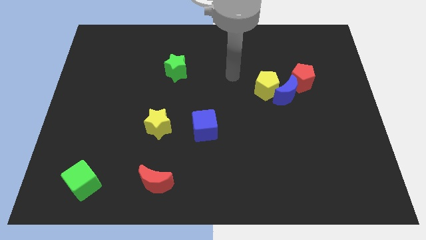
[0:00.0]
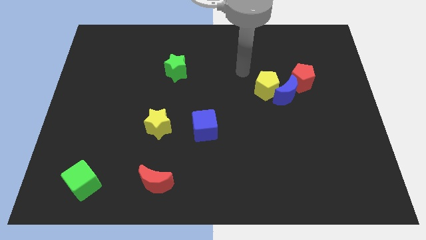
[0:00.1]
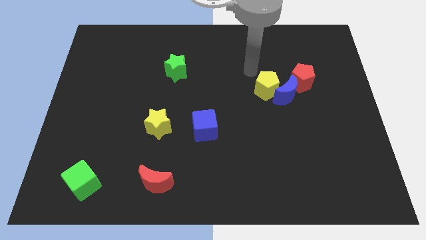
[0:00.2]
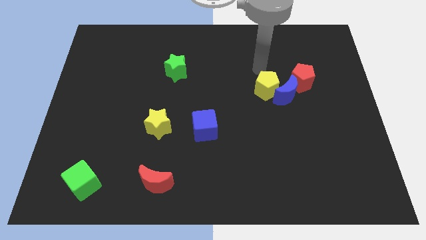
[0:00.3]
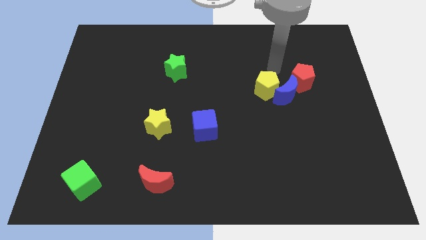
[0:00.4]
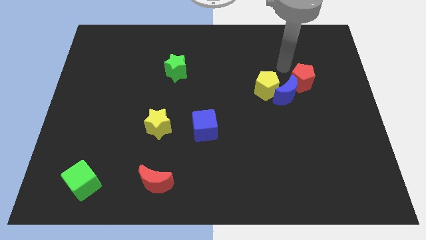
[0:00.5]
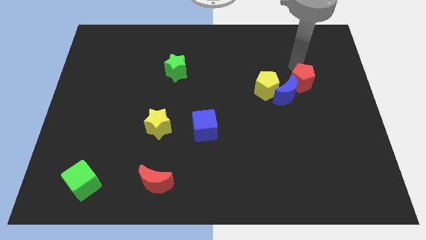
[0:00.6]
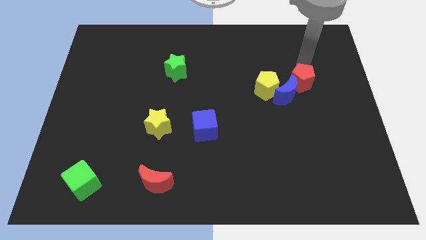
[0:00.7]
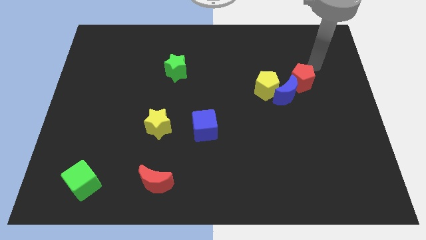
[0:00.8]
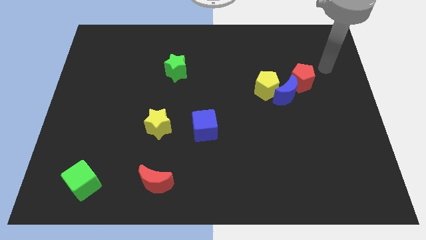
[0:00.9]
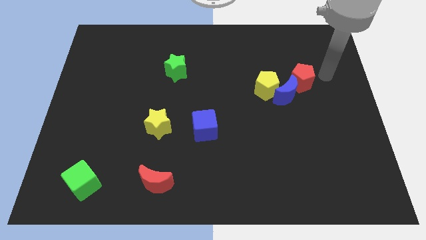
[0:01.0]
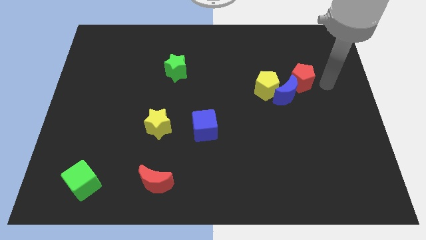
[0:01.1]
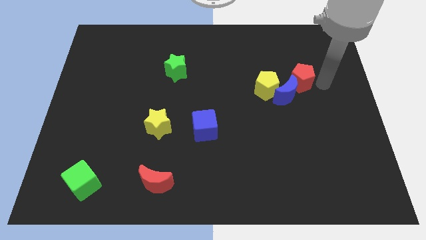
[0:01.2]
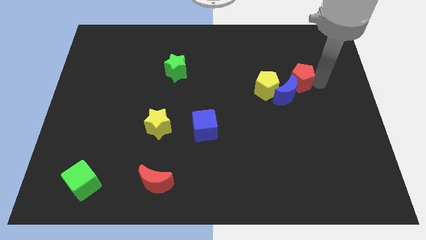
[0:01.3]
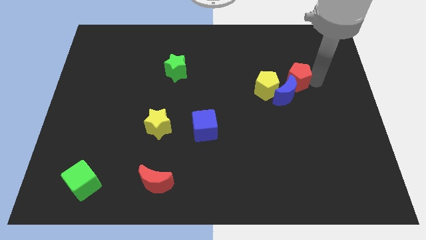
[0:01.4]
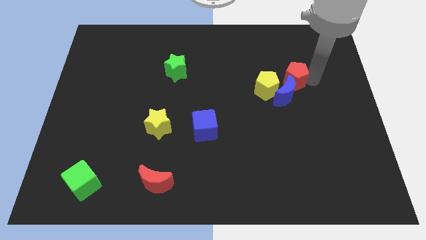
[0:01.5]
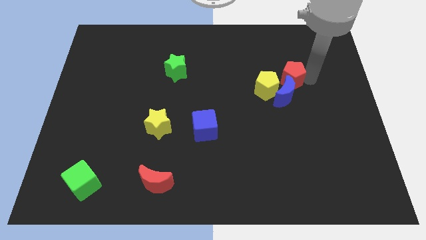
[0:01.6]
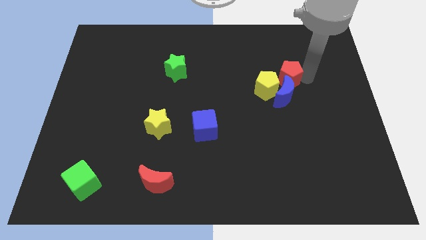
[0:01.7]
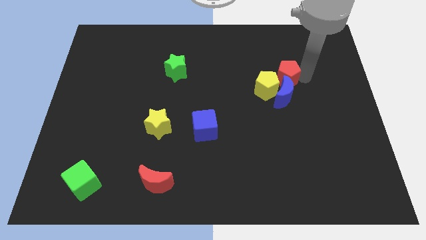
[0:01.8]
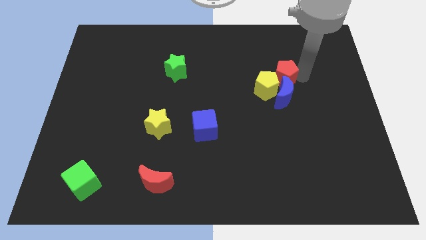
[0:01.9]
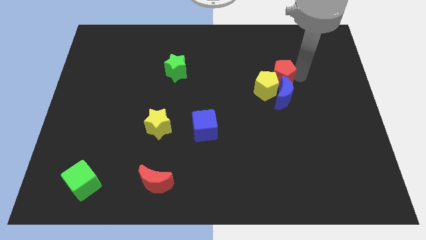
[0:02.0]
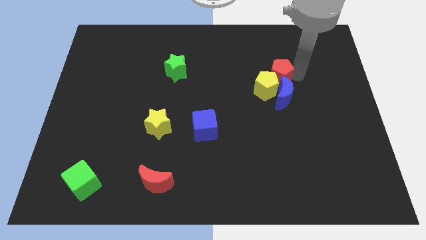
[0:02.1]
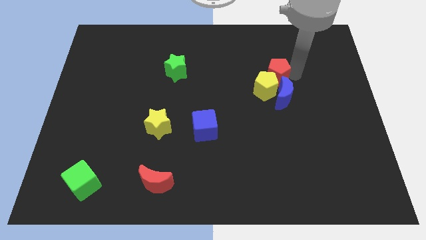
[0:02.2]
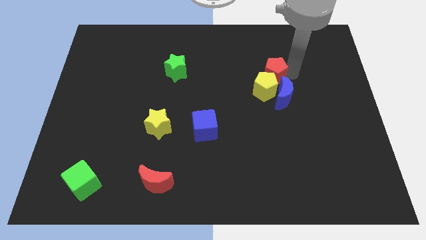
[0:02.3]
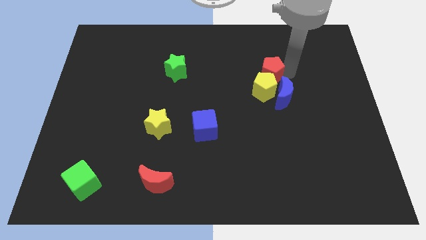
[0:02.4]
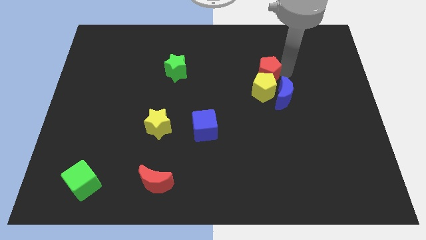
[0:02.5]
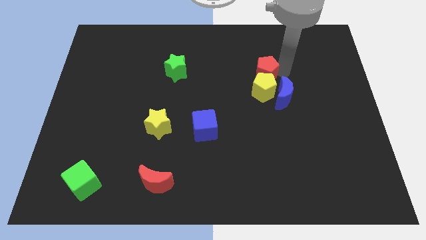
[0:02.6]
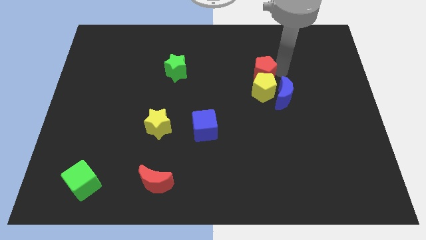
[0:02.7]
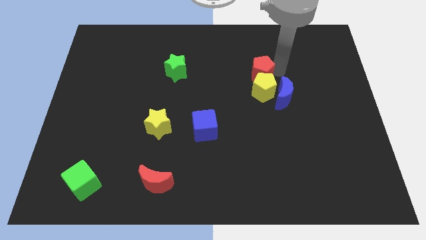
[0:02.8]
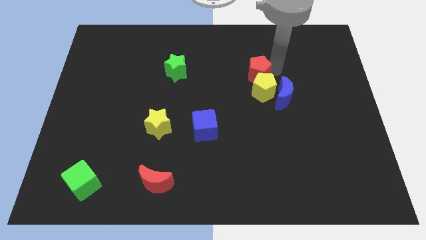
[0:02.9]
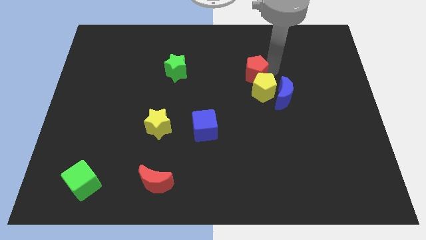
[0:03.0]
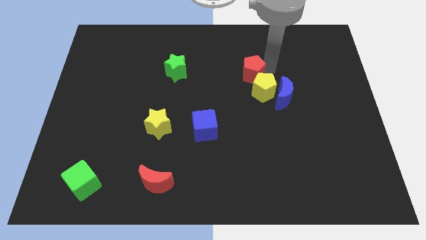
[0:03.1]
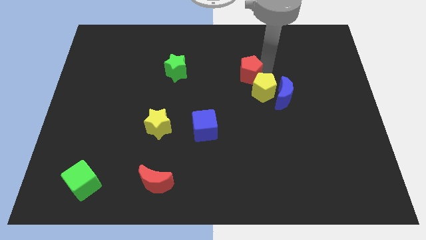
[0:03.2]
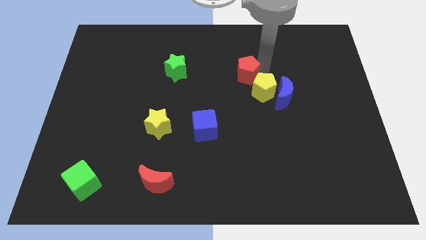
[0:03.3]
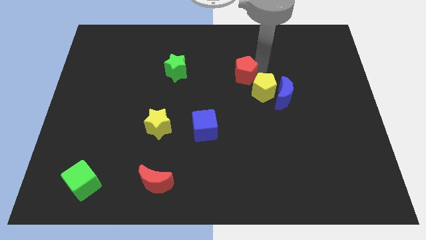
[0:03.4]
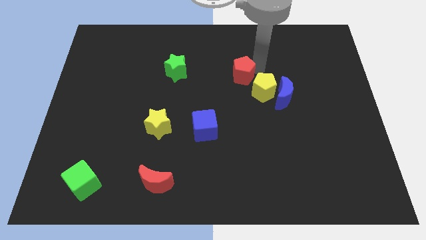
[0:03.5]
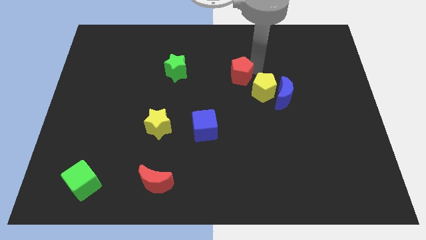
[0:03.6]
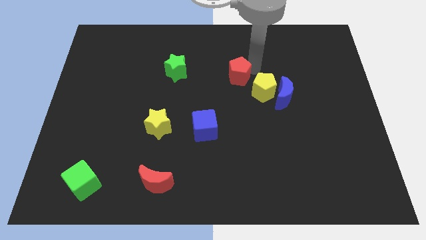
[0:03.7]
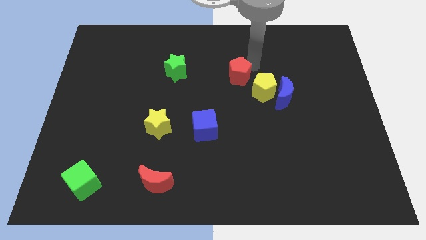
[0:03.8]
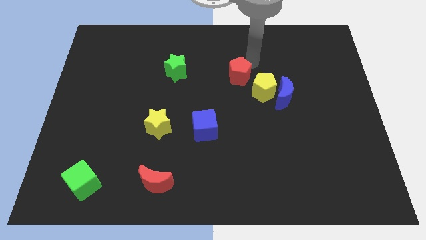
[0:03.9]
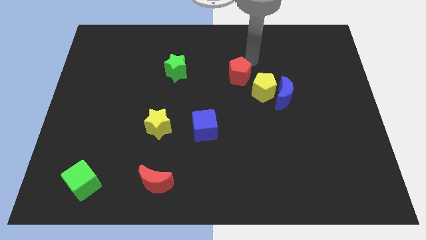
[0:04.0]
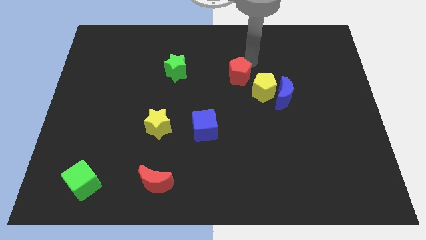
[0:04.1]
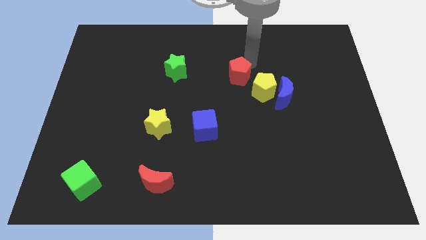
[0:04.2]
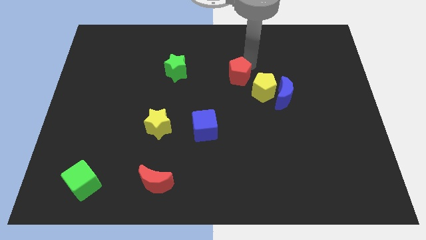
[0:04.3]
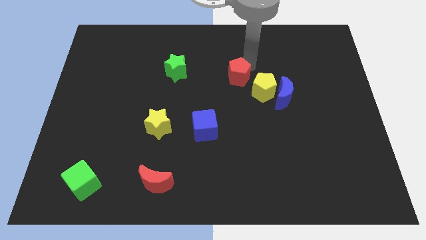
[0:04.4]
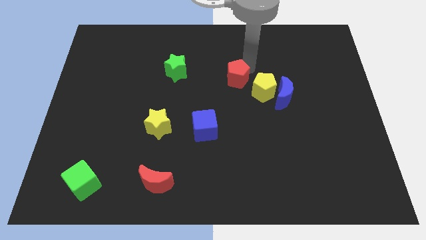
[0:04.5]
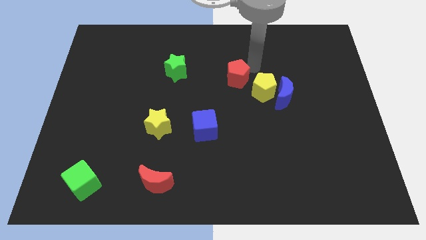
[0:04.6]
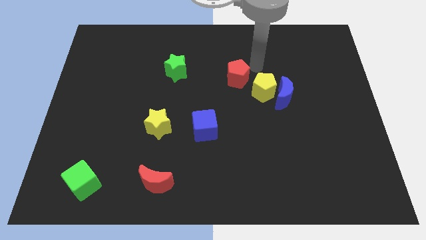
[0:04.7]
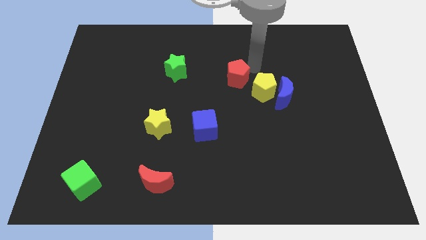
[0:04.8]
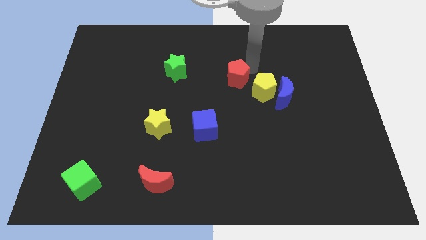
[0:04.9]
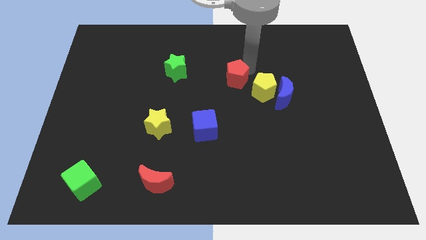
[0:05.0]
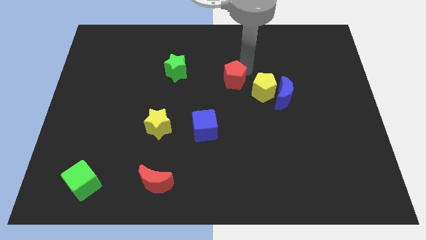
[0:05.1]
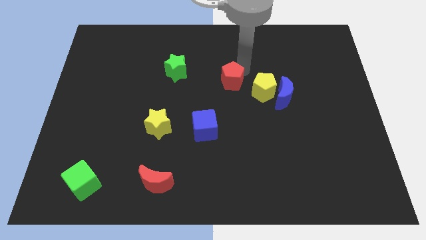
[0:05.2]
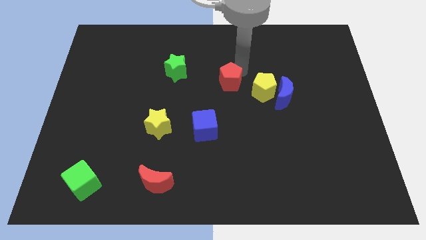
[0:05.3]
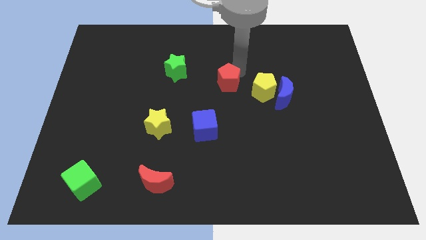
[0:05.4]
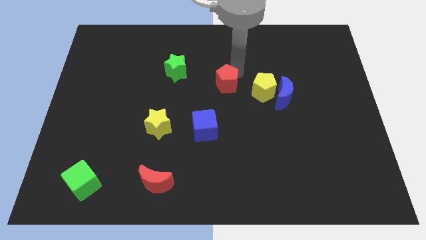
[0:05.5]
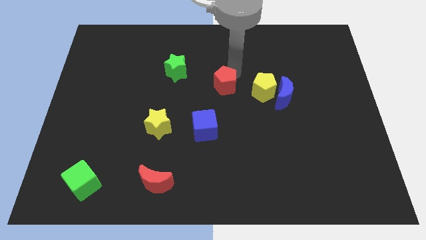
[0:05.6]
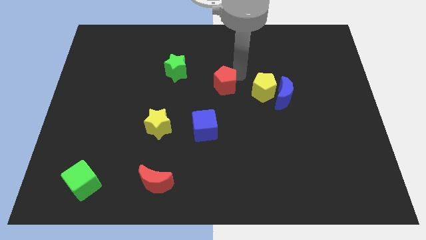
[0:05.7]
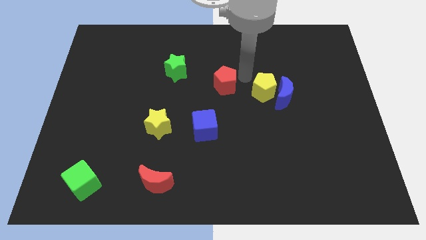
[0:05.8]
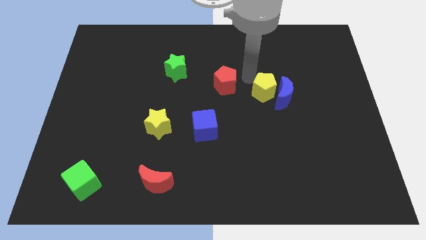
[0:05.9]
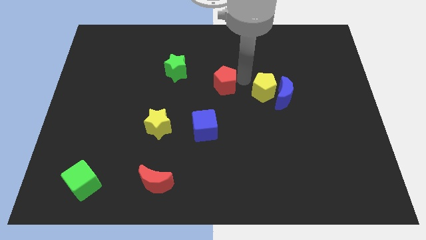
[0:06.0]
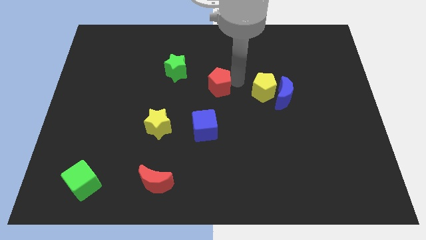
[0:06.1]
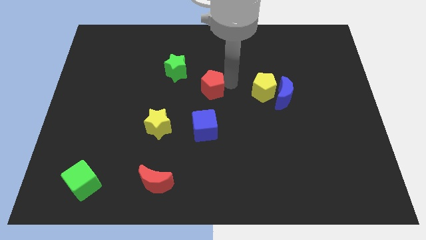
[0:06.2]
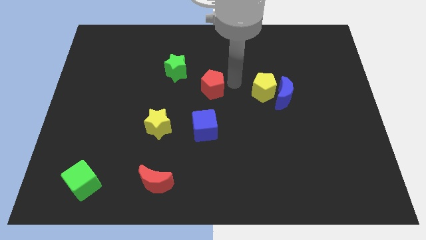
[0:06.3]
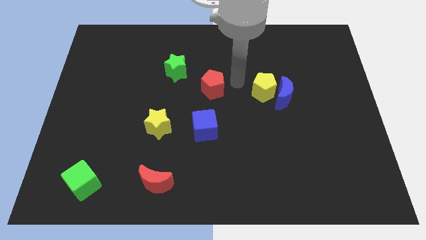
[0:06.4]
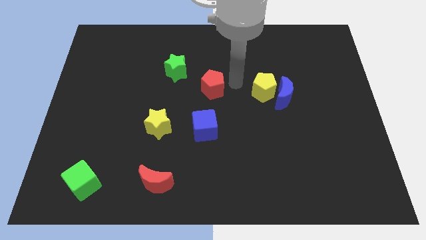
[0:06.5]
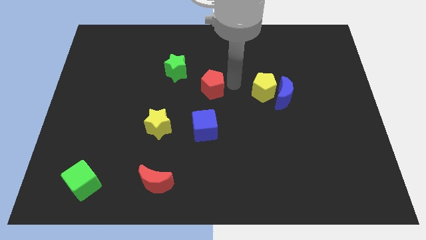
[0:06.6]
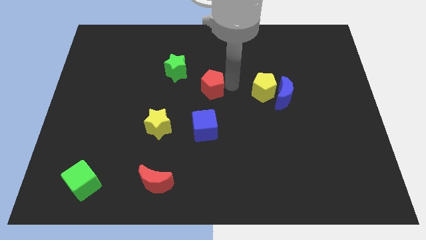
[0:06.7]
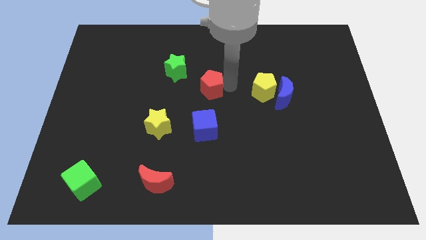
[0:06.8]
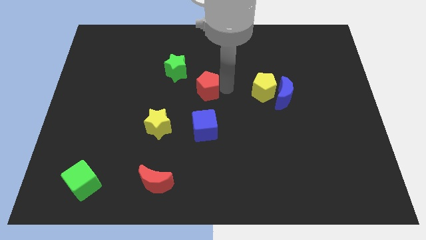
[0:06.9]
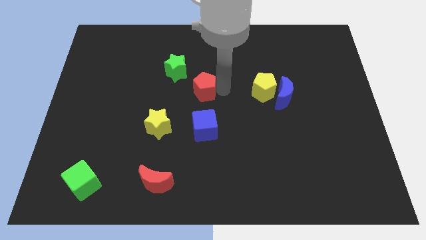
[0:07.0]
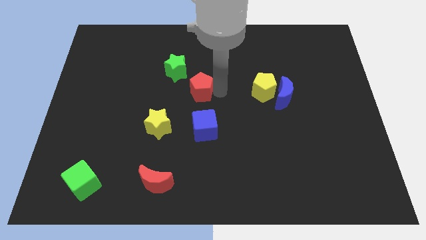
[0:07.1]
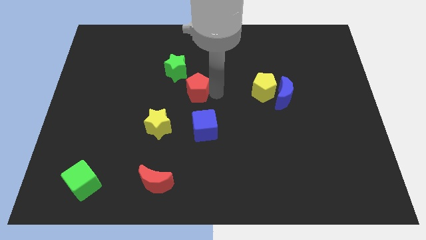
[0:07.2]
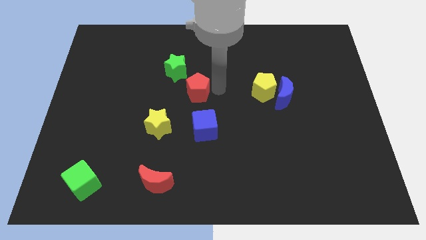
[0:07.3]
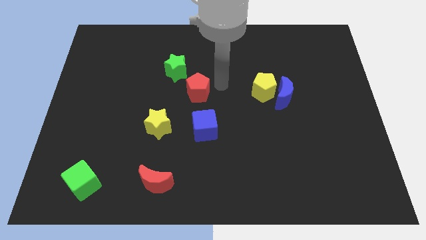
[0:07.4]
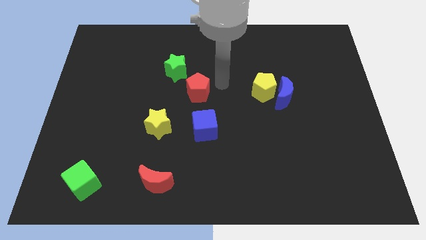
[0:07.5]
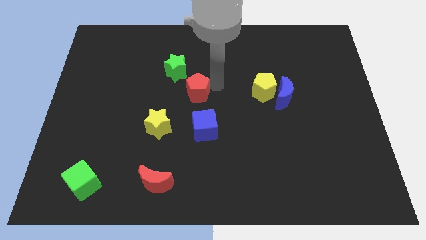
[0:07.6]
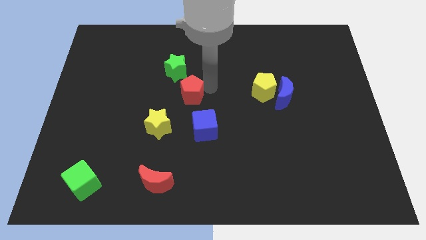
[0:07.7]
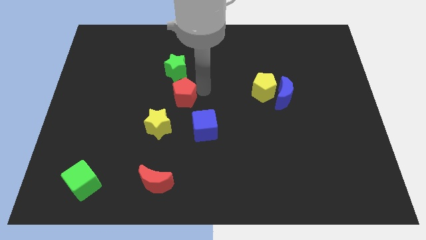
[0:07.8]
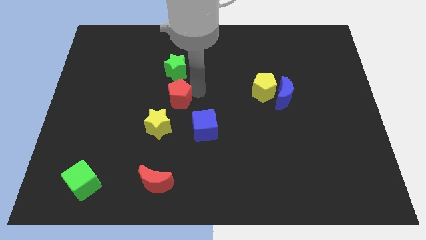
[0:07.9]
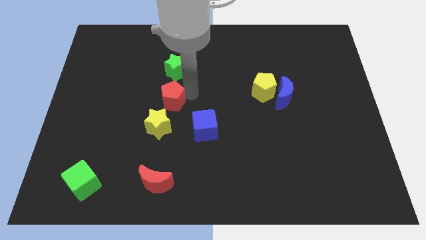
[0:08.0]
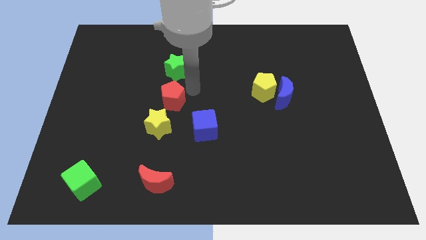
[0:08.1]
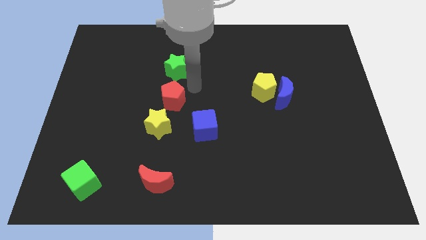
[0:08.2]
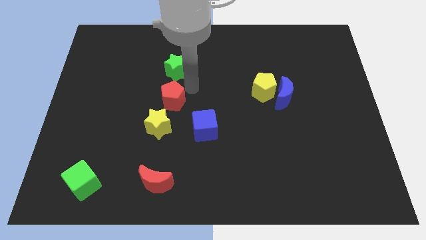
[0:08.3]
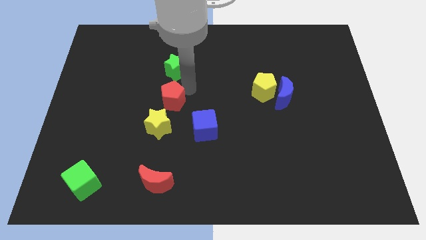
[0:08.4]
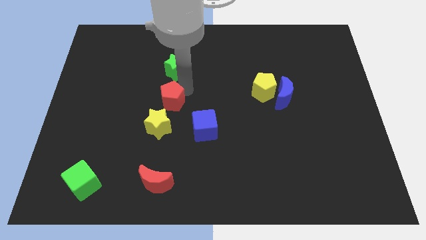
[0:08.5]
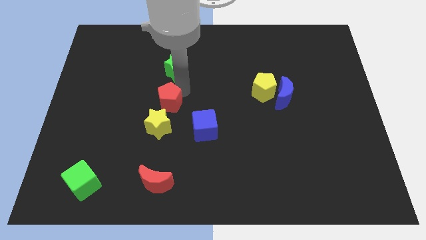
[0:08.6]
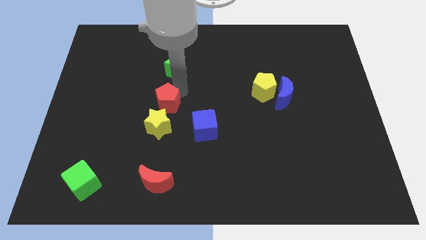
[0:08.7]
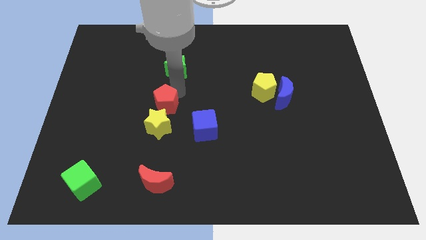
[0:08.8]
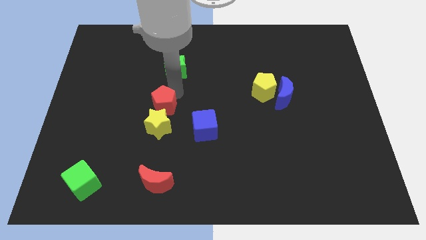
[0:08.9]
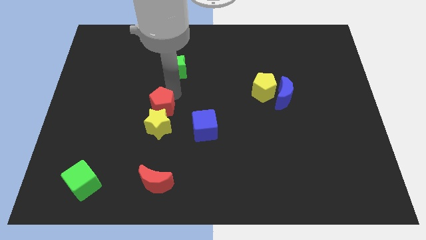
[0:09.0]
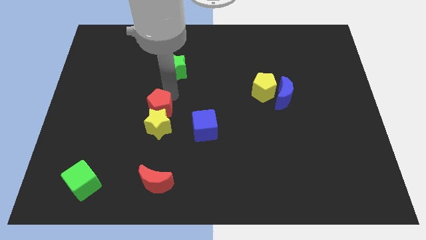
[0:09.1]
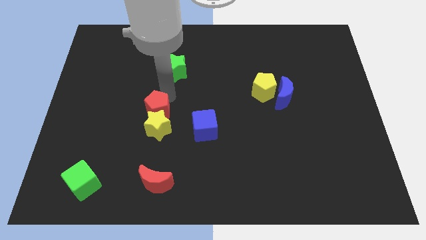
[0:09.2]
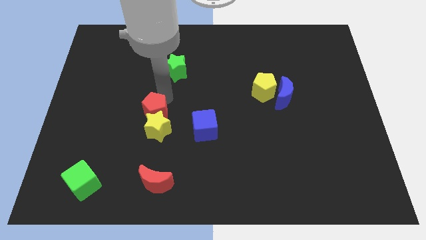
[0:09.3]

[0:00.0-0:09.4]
put the red pentagon to the left side of the blue cube
